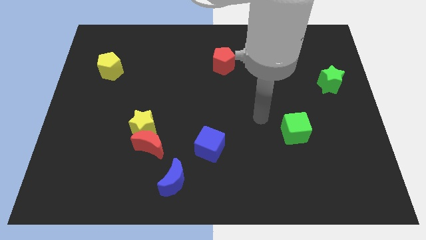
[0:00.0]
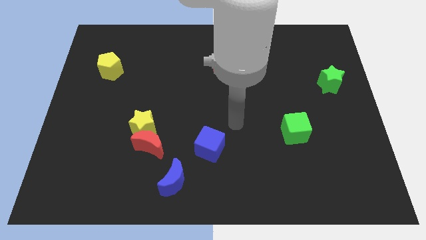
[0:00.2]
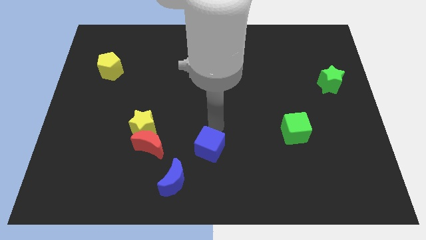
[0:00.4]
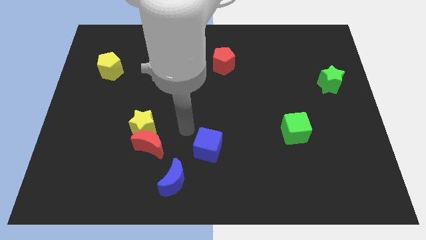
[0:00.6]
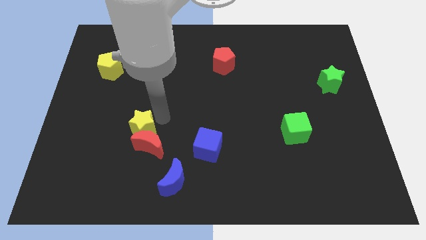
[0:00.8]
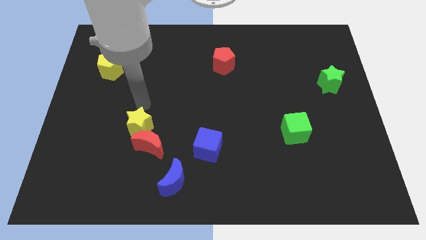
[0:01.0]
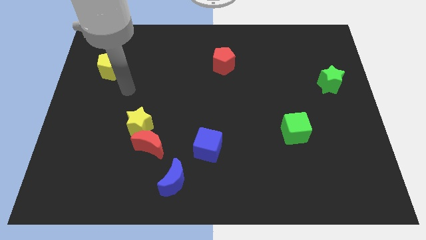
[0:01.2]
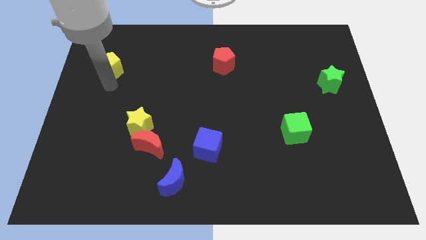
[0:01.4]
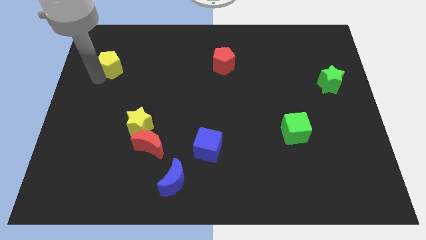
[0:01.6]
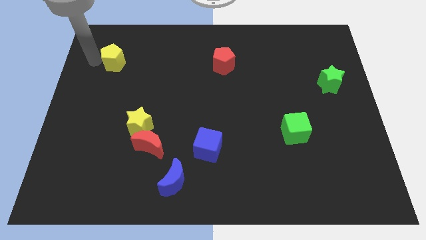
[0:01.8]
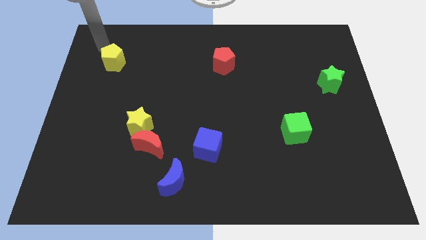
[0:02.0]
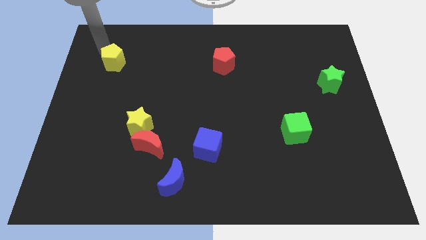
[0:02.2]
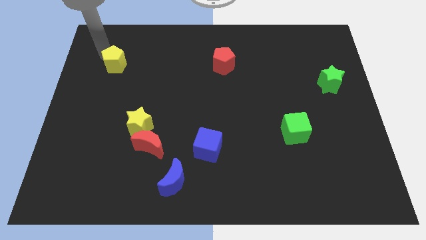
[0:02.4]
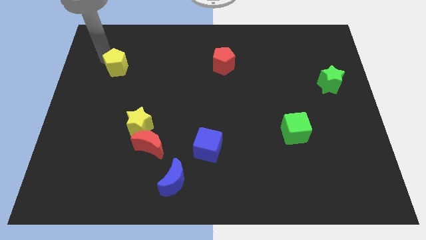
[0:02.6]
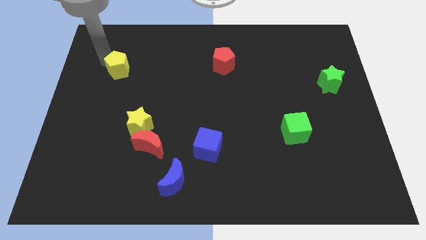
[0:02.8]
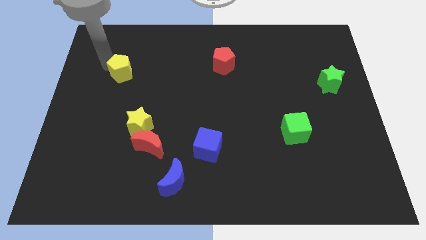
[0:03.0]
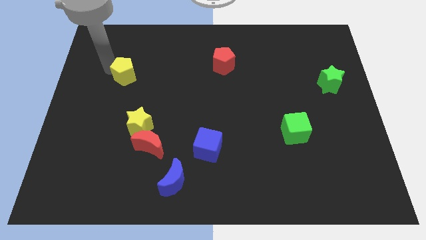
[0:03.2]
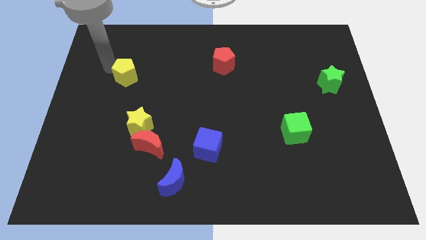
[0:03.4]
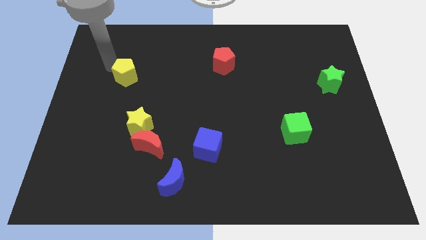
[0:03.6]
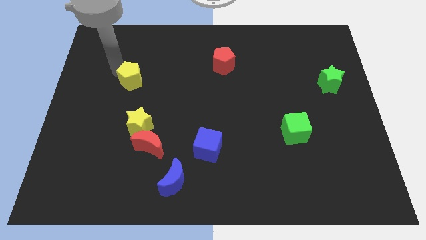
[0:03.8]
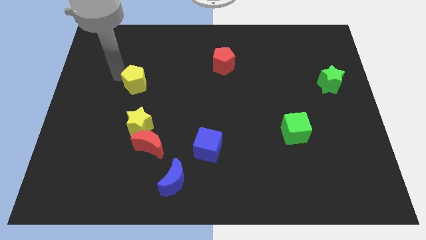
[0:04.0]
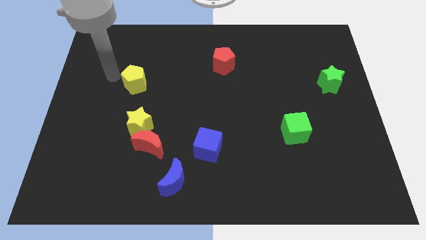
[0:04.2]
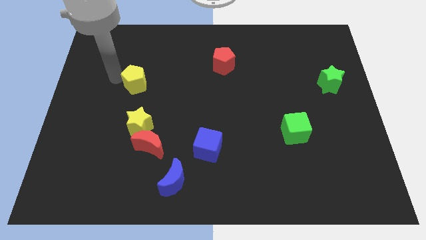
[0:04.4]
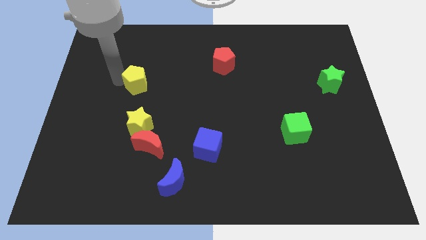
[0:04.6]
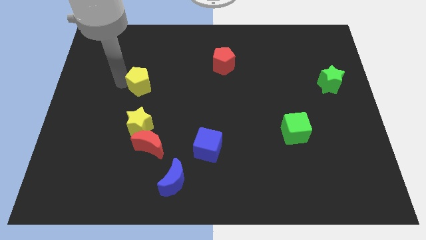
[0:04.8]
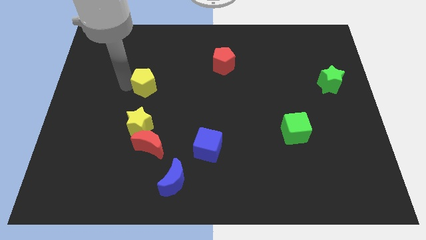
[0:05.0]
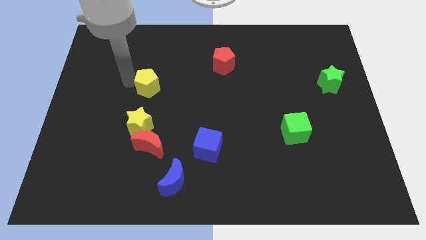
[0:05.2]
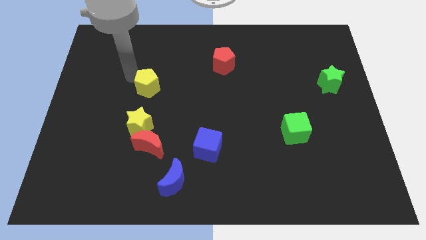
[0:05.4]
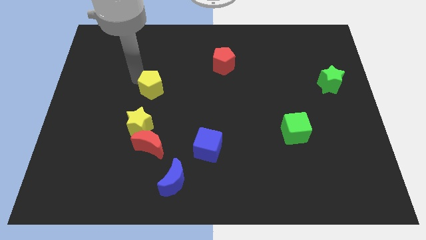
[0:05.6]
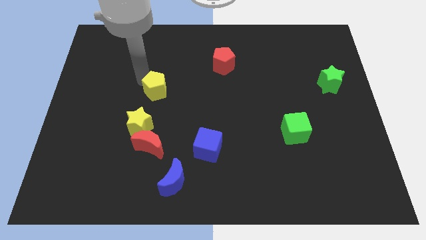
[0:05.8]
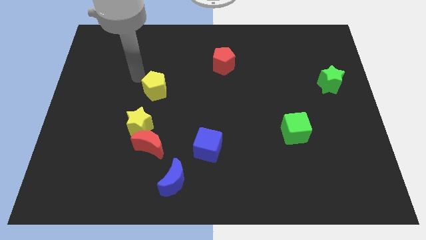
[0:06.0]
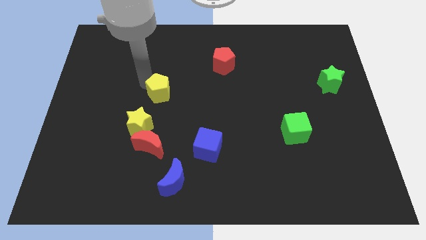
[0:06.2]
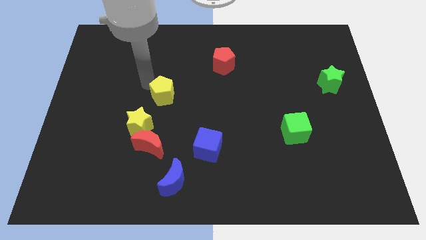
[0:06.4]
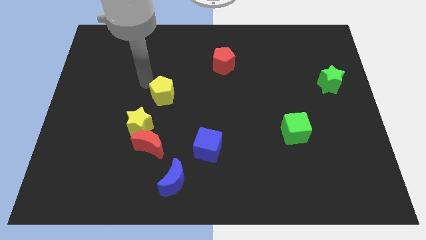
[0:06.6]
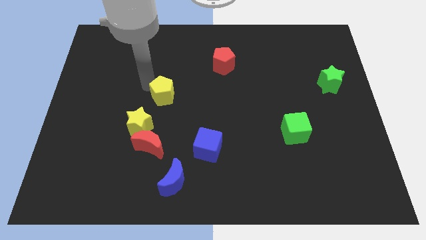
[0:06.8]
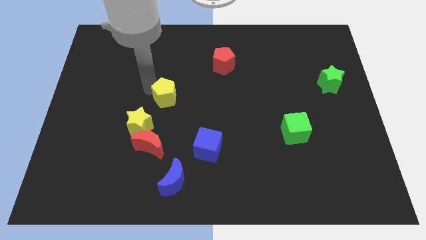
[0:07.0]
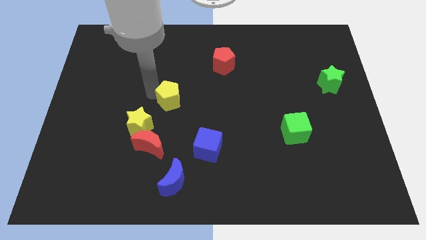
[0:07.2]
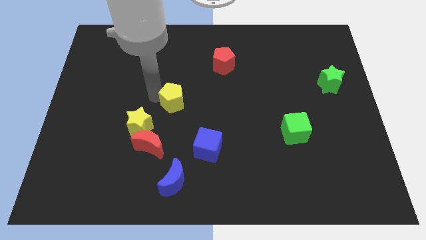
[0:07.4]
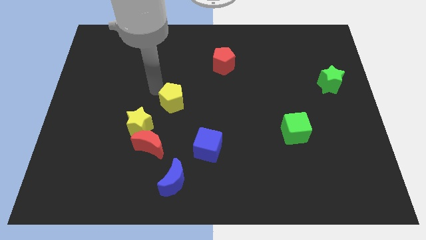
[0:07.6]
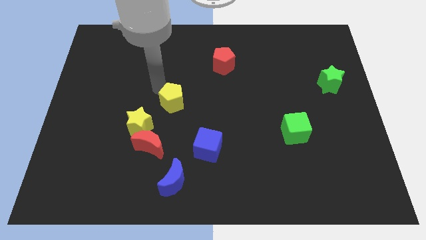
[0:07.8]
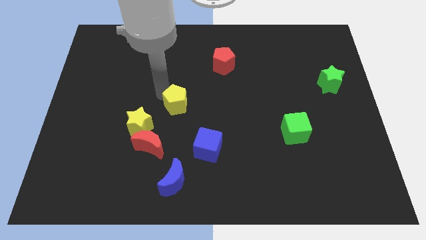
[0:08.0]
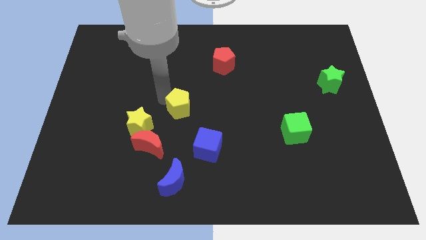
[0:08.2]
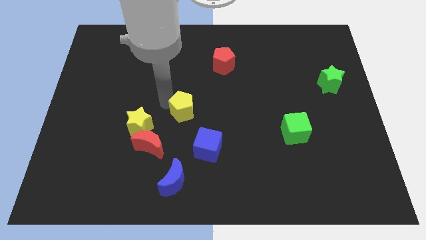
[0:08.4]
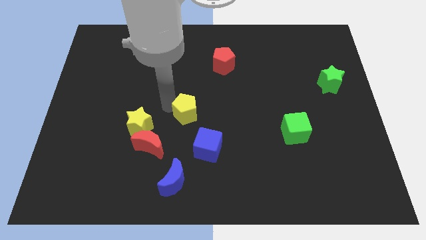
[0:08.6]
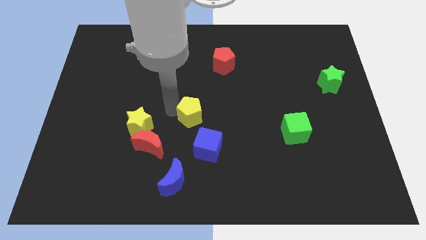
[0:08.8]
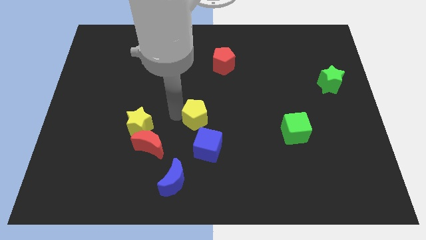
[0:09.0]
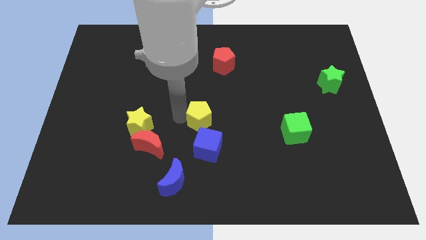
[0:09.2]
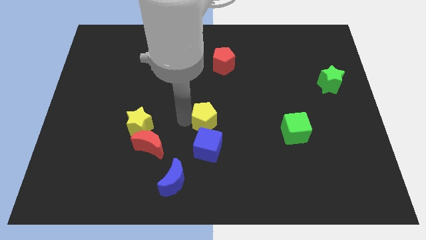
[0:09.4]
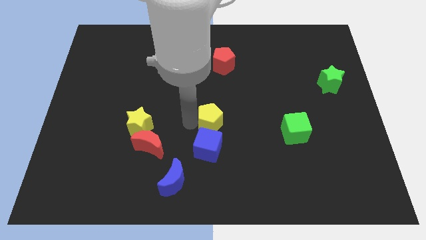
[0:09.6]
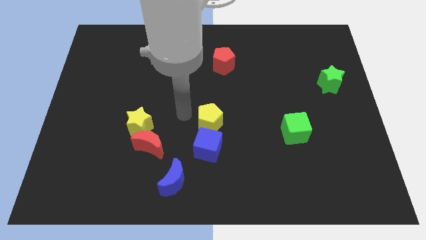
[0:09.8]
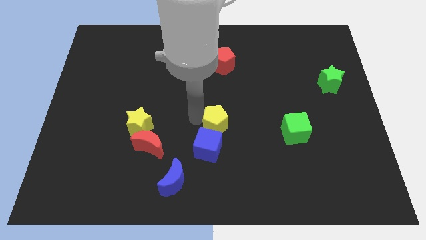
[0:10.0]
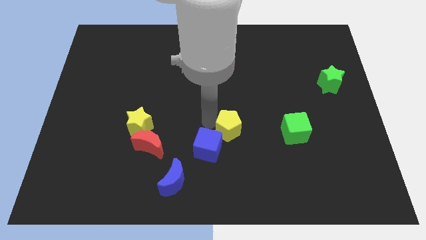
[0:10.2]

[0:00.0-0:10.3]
move the yellow pentagon to the right of the blue cube

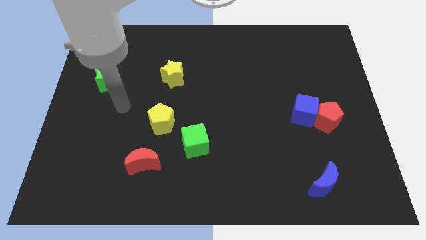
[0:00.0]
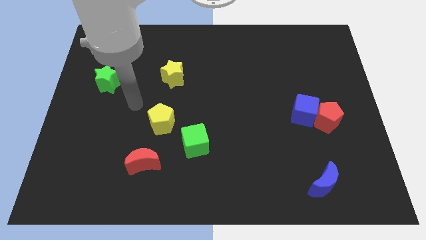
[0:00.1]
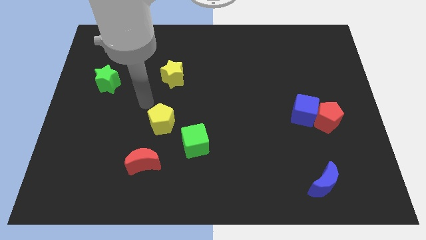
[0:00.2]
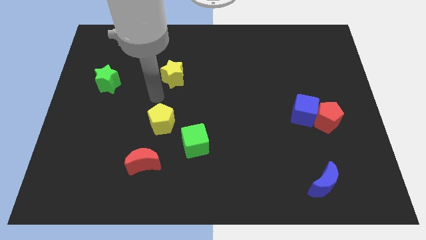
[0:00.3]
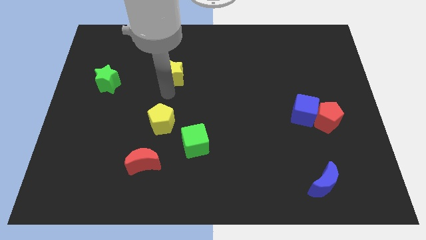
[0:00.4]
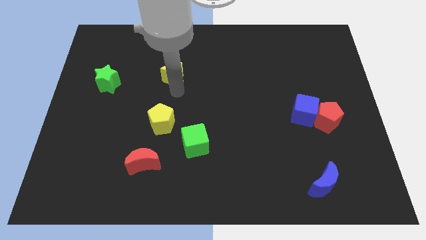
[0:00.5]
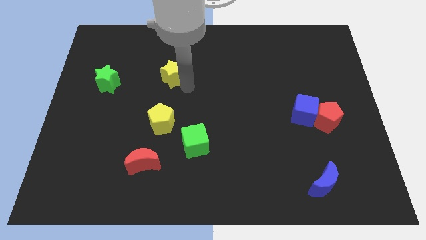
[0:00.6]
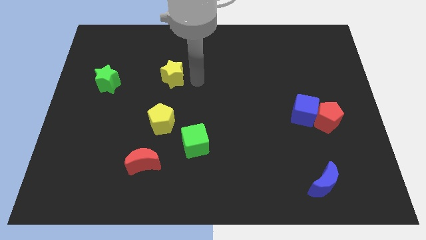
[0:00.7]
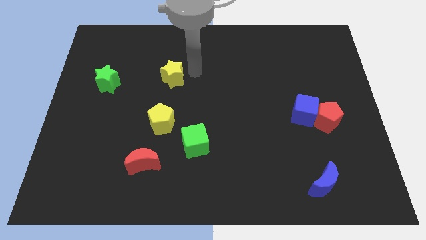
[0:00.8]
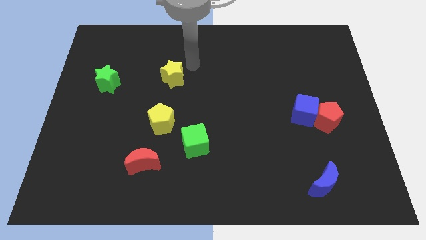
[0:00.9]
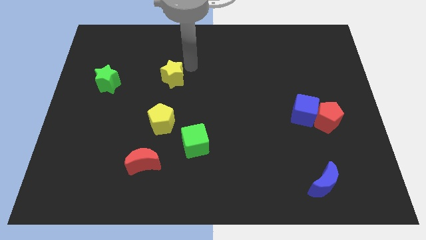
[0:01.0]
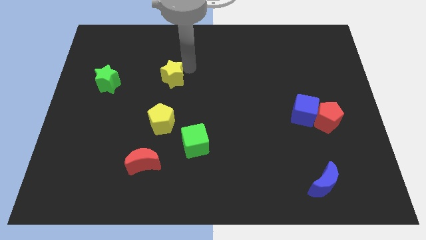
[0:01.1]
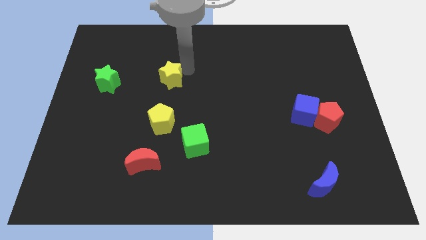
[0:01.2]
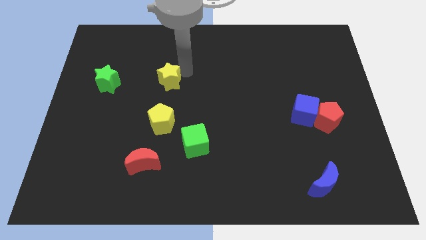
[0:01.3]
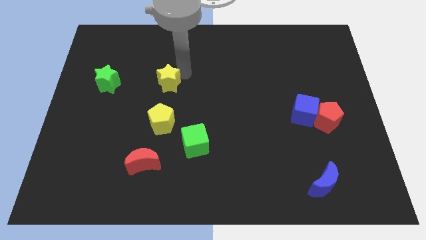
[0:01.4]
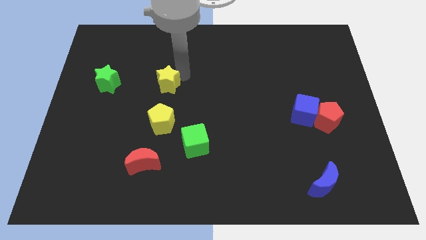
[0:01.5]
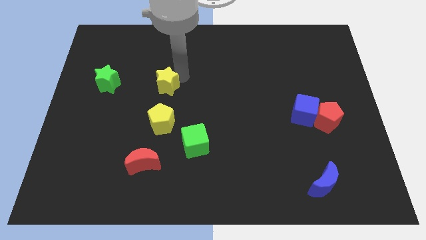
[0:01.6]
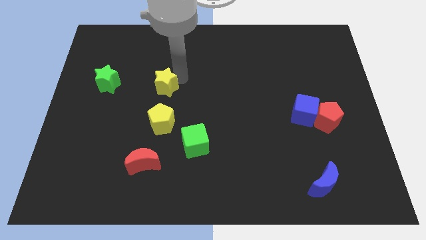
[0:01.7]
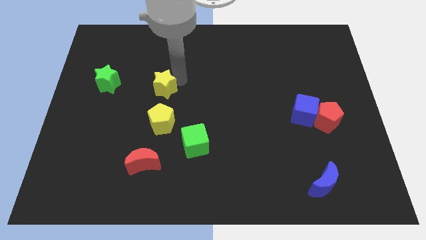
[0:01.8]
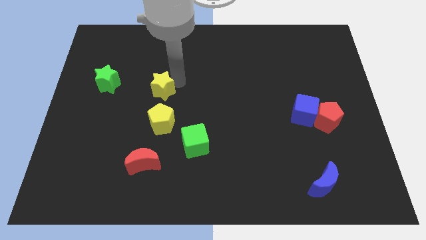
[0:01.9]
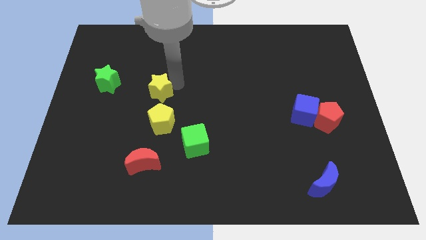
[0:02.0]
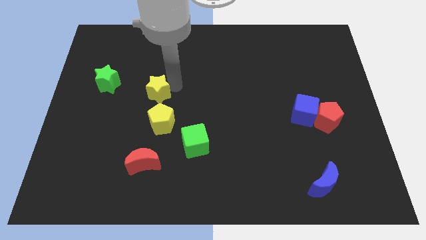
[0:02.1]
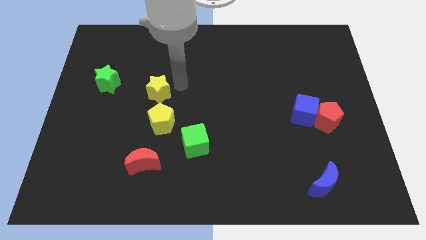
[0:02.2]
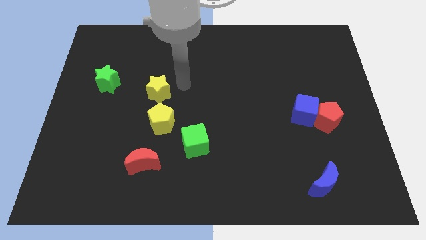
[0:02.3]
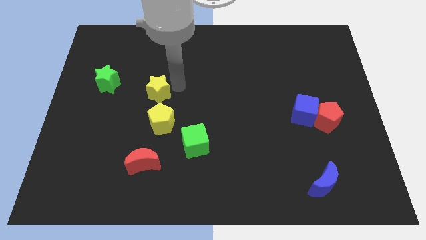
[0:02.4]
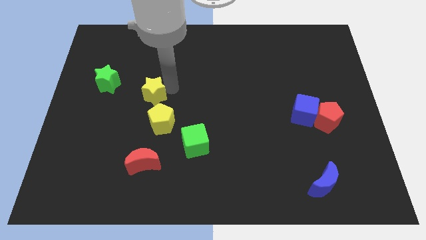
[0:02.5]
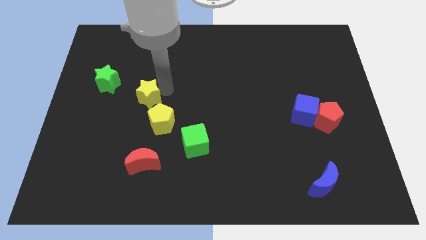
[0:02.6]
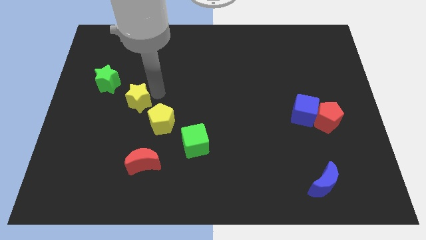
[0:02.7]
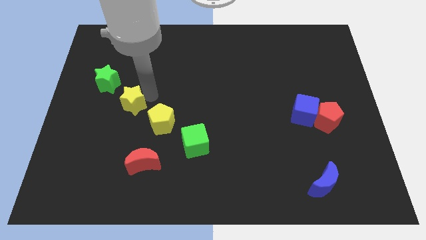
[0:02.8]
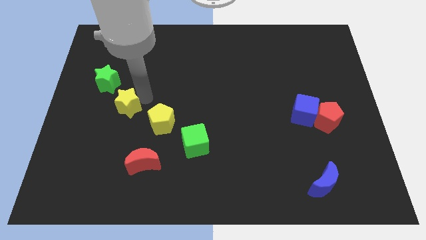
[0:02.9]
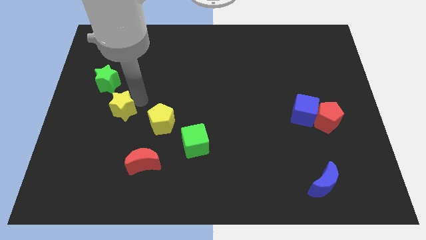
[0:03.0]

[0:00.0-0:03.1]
push the yellow star to the bottom of the green star
